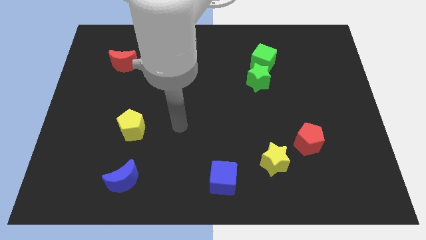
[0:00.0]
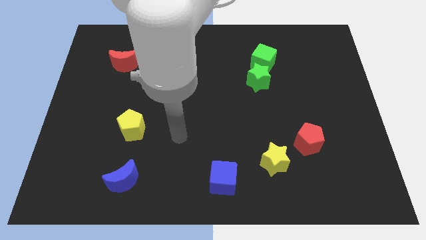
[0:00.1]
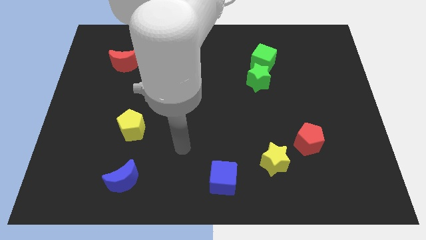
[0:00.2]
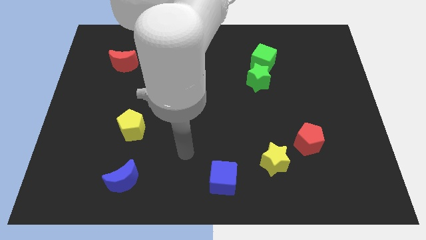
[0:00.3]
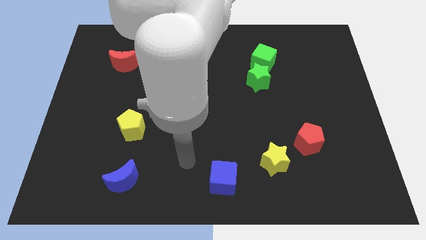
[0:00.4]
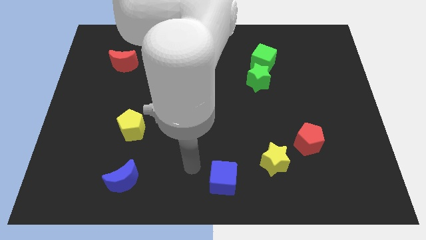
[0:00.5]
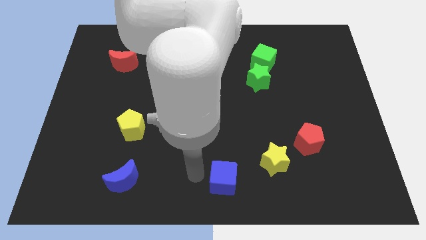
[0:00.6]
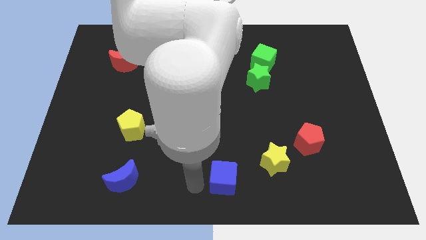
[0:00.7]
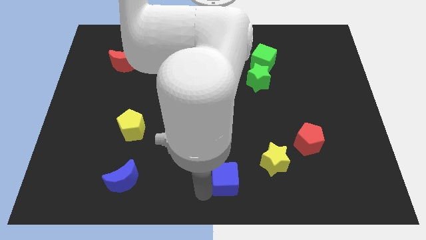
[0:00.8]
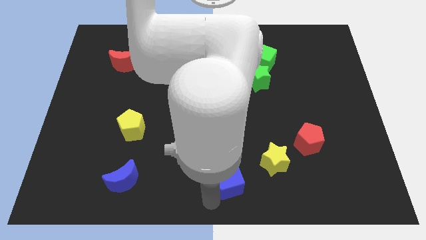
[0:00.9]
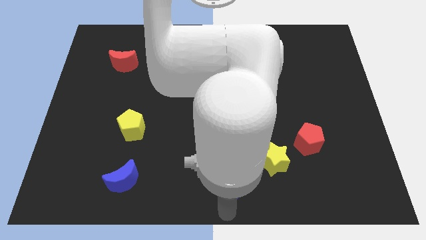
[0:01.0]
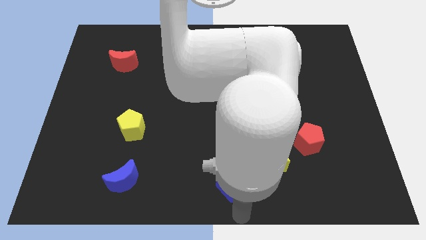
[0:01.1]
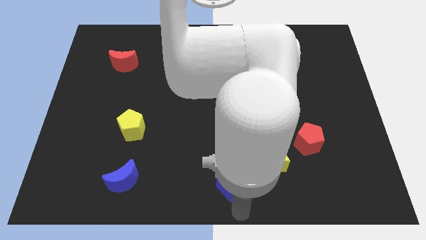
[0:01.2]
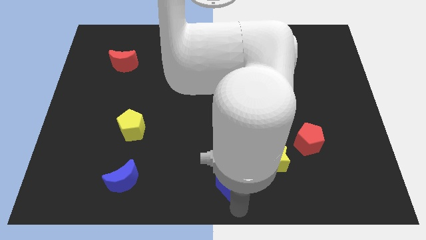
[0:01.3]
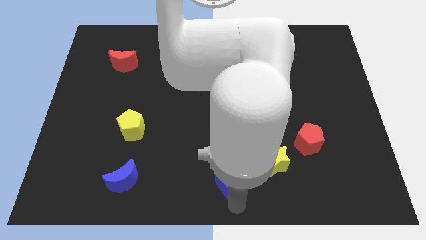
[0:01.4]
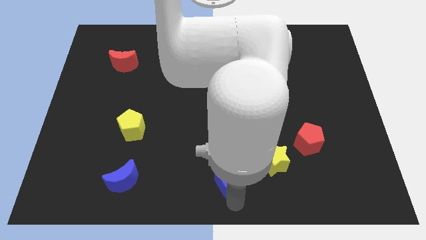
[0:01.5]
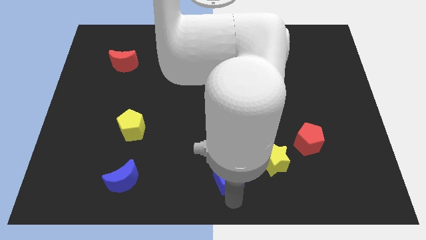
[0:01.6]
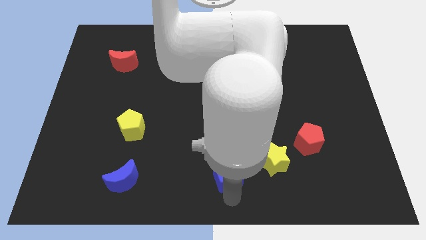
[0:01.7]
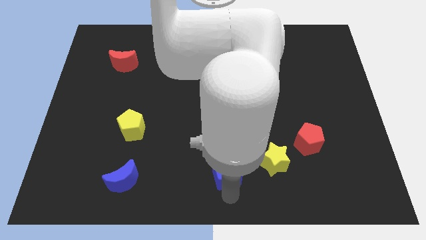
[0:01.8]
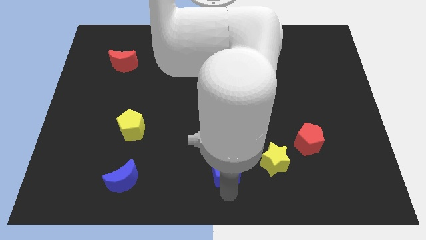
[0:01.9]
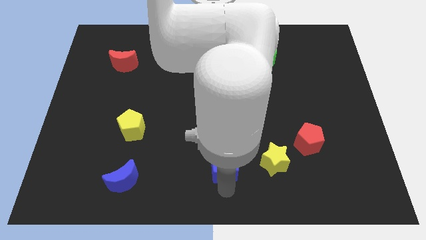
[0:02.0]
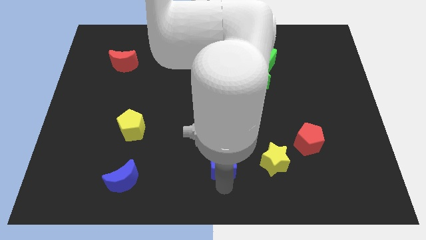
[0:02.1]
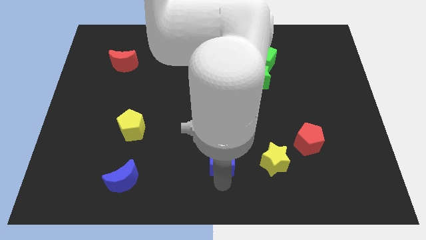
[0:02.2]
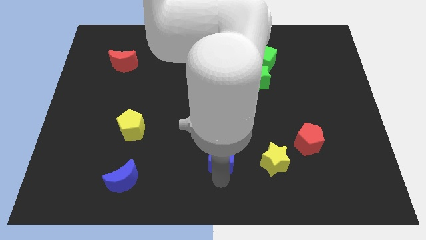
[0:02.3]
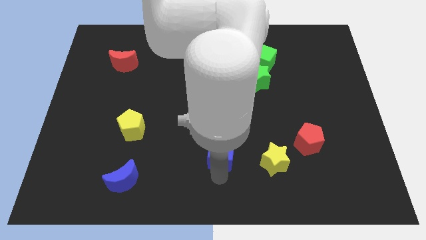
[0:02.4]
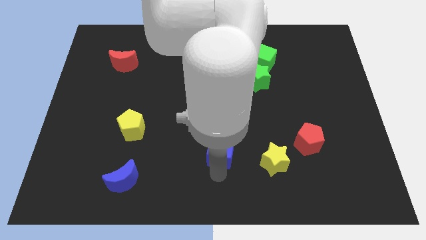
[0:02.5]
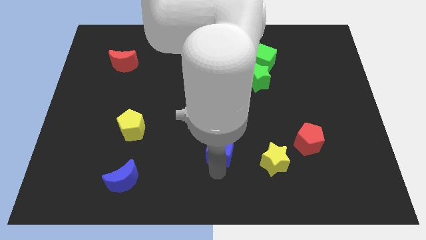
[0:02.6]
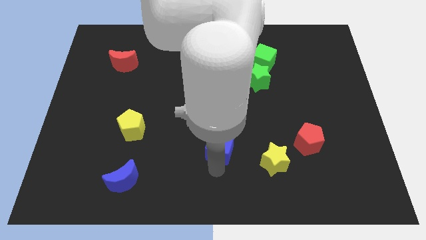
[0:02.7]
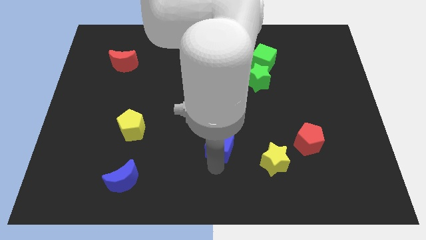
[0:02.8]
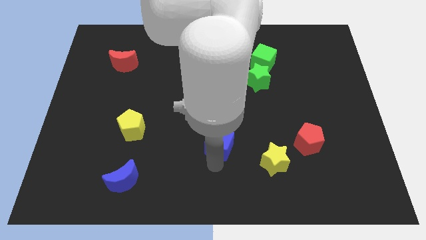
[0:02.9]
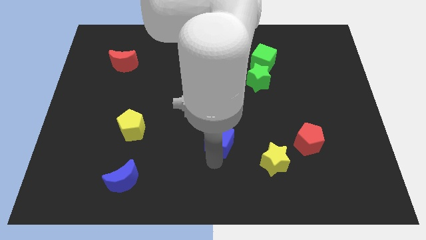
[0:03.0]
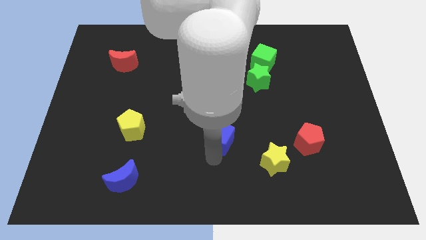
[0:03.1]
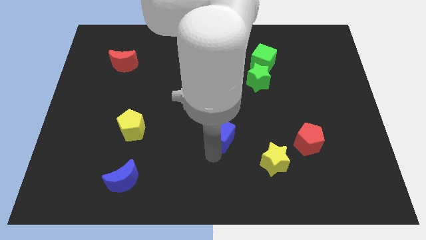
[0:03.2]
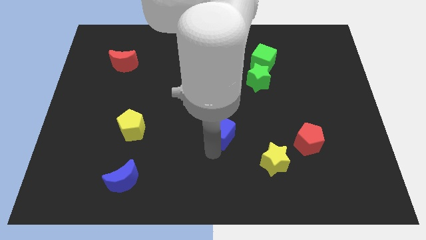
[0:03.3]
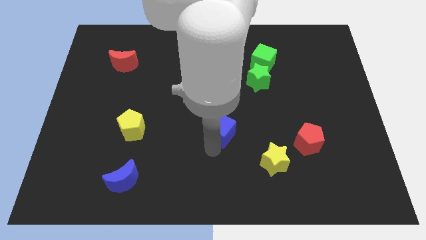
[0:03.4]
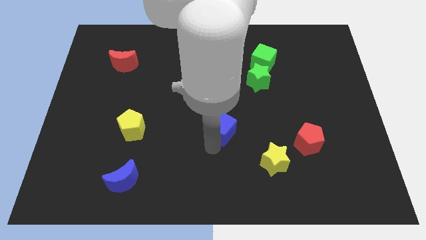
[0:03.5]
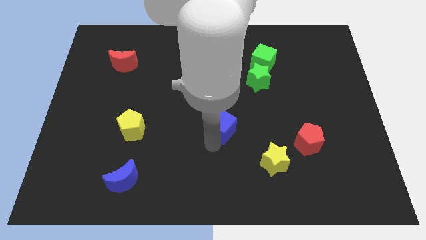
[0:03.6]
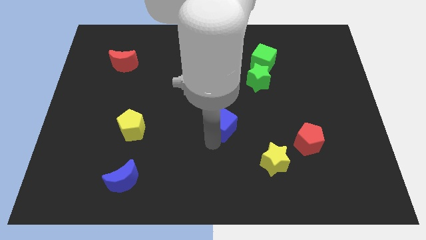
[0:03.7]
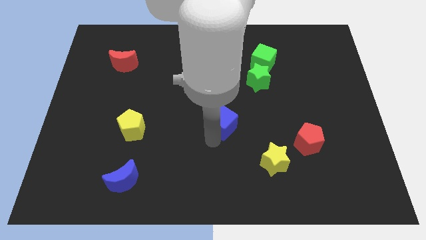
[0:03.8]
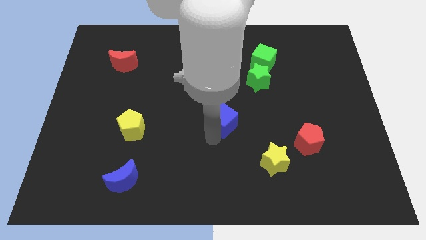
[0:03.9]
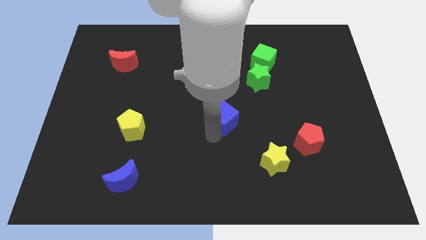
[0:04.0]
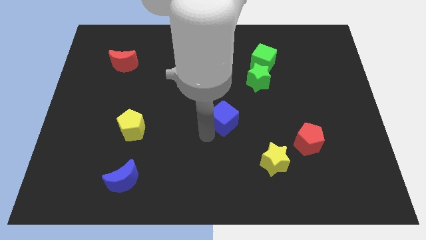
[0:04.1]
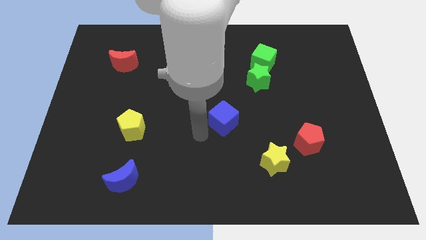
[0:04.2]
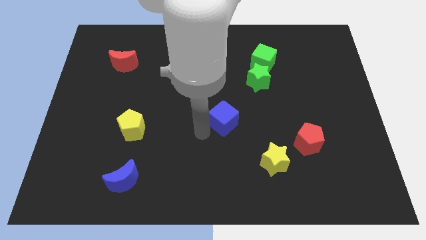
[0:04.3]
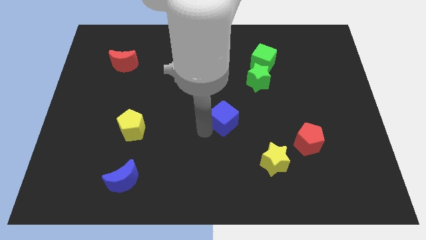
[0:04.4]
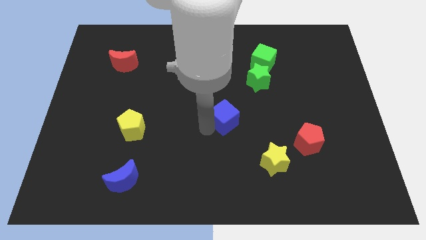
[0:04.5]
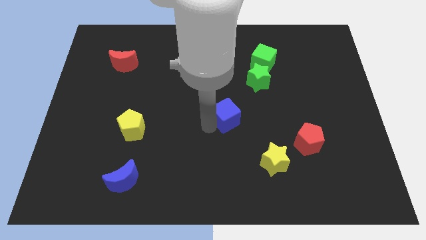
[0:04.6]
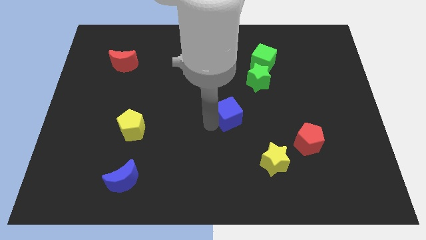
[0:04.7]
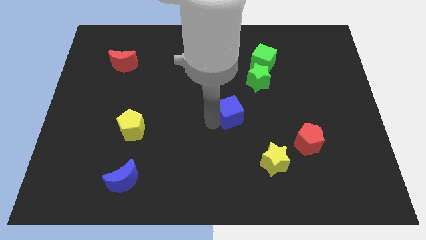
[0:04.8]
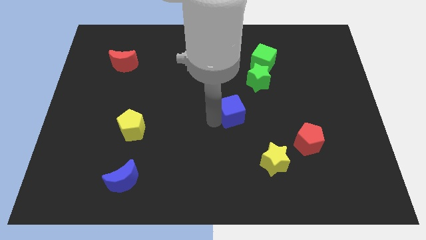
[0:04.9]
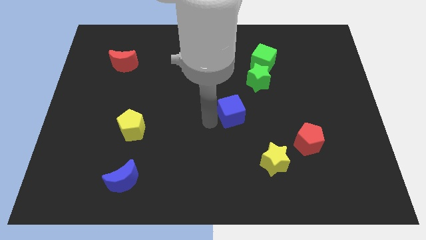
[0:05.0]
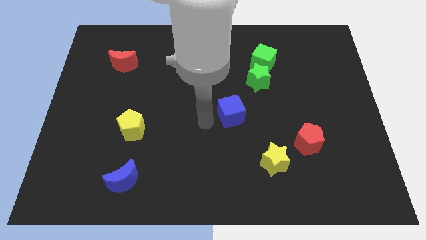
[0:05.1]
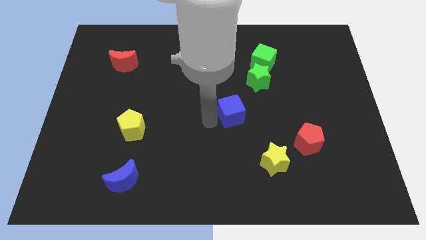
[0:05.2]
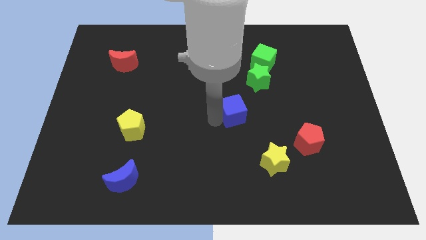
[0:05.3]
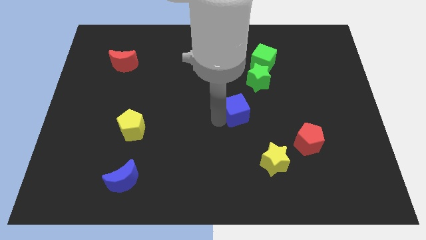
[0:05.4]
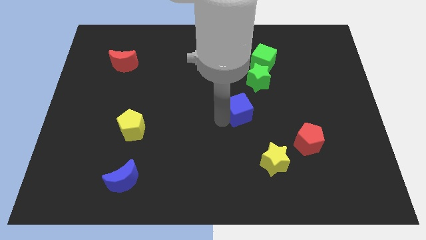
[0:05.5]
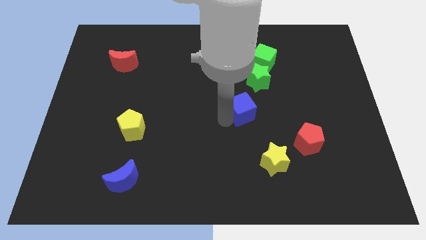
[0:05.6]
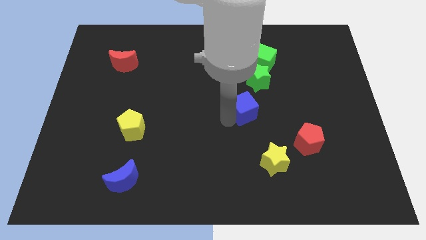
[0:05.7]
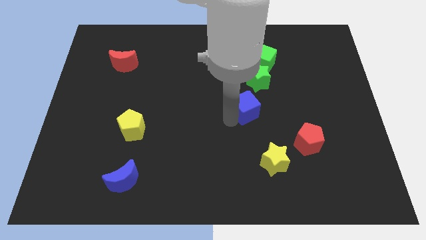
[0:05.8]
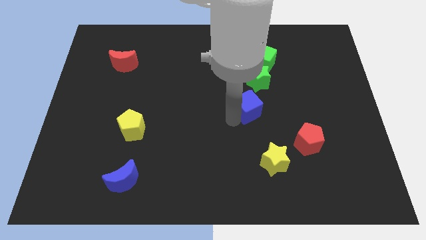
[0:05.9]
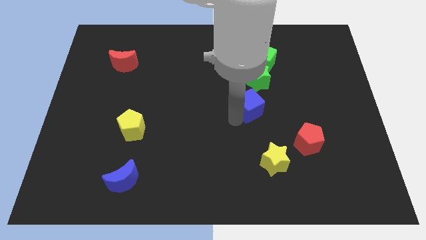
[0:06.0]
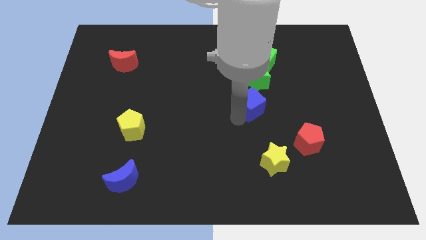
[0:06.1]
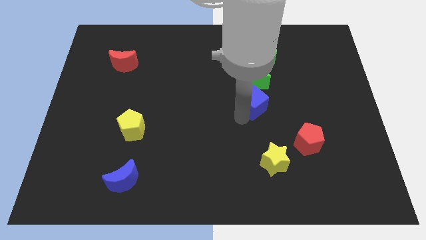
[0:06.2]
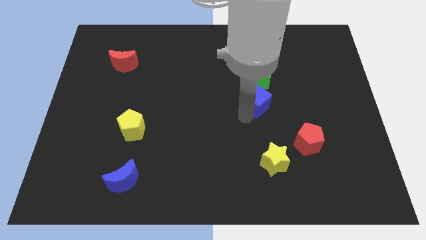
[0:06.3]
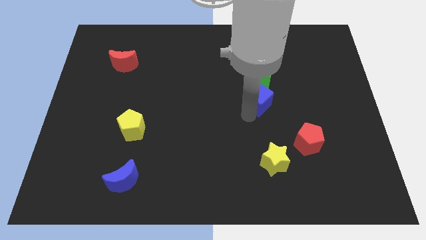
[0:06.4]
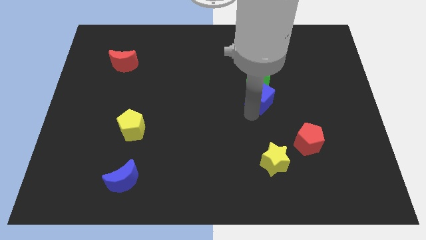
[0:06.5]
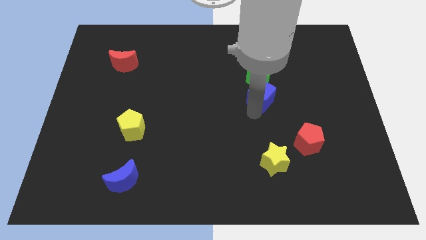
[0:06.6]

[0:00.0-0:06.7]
put the blue cube towards the green star

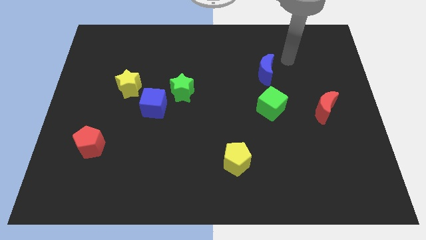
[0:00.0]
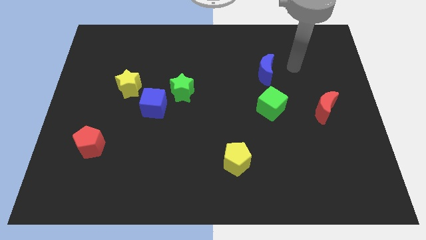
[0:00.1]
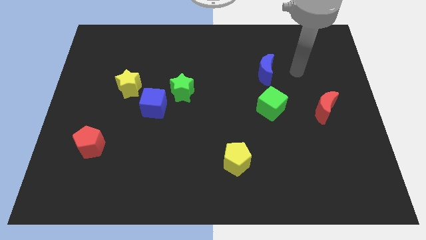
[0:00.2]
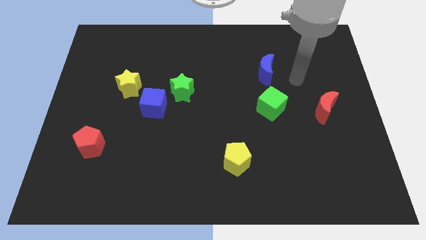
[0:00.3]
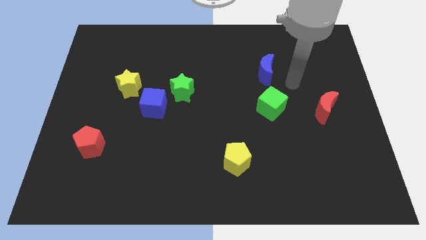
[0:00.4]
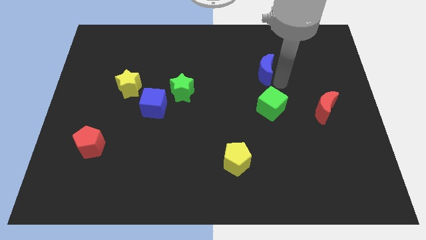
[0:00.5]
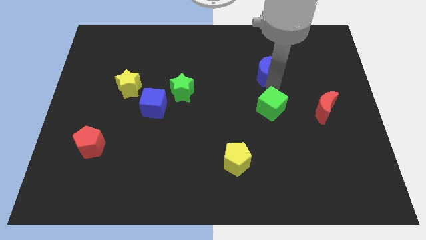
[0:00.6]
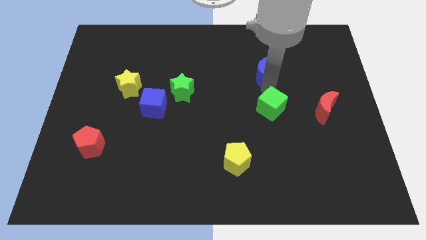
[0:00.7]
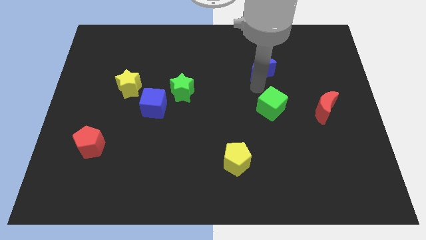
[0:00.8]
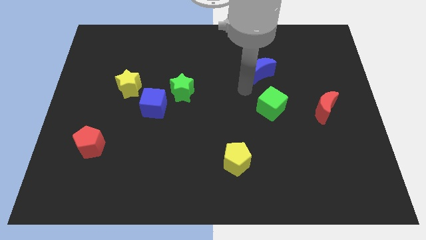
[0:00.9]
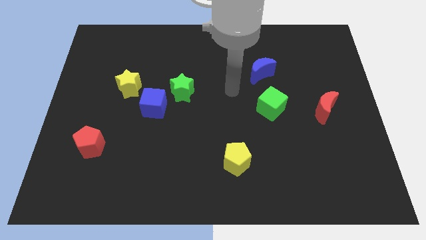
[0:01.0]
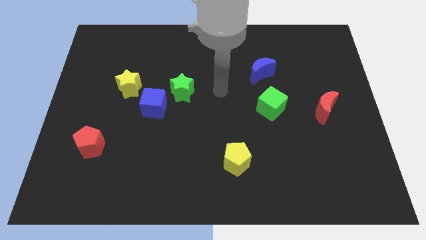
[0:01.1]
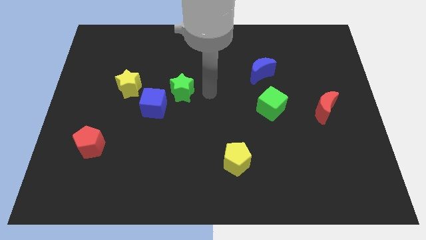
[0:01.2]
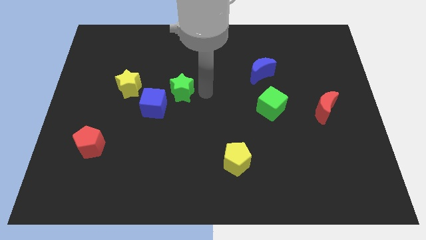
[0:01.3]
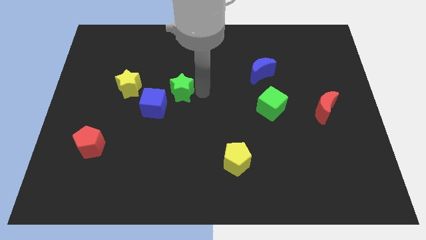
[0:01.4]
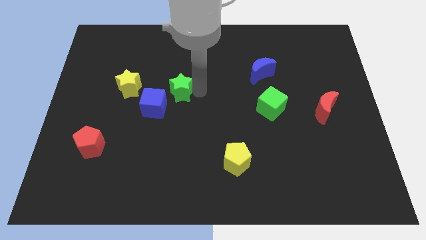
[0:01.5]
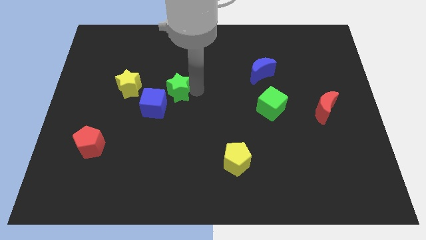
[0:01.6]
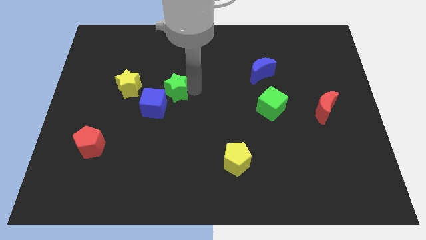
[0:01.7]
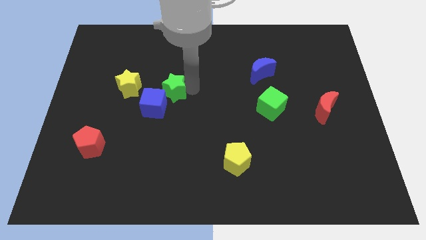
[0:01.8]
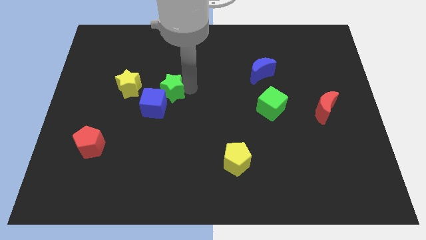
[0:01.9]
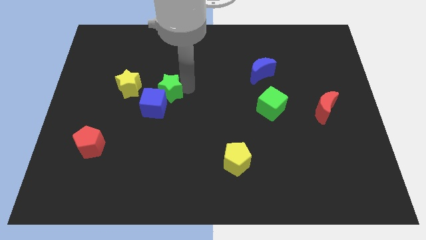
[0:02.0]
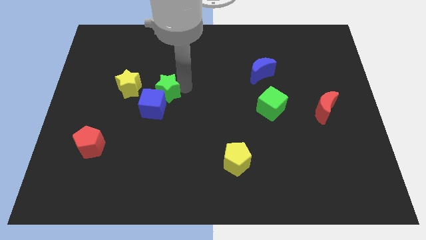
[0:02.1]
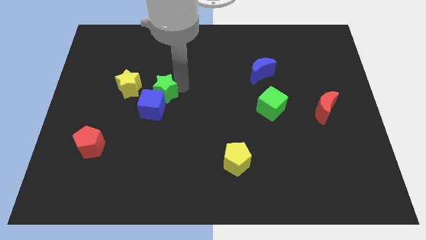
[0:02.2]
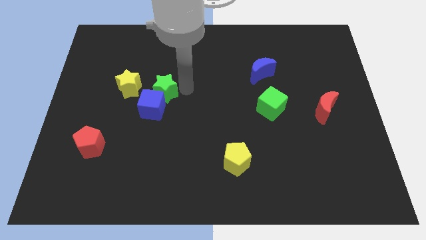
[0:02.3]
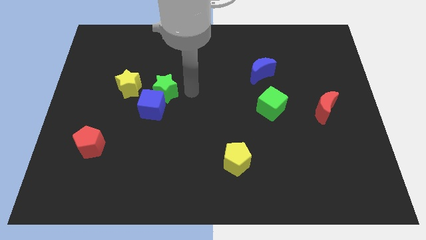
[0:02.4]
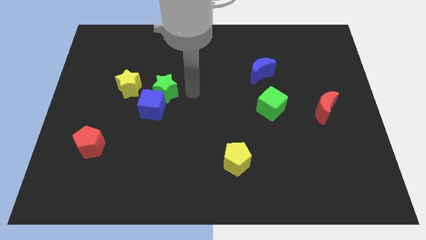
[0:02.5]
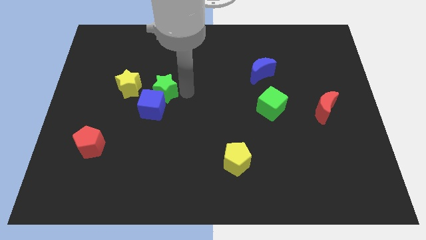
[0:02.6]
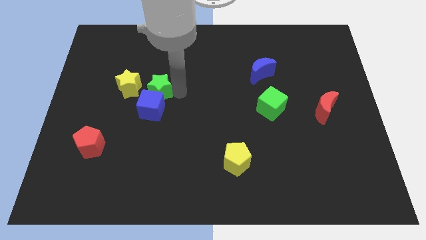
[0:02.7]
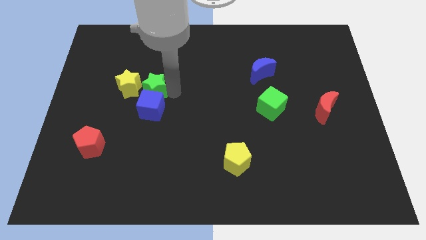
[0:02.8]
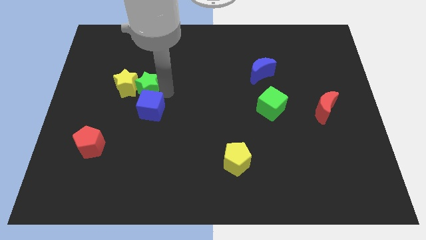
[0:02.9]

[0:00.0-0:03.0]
slide the green star close to the yellow star
